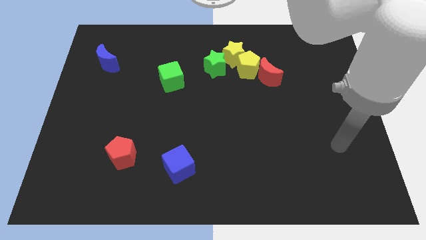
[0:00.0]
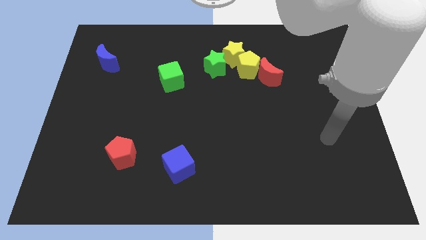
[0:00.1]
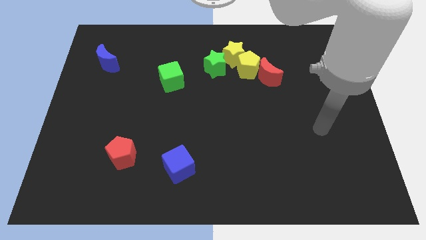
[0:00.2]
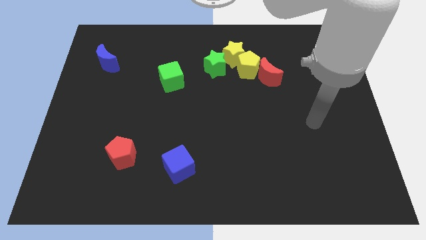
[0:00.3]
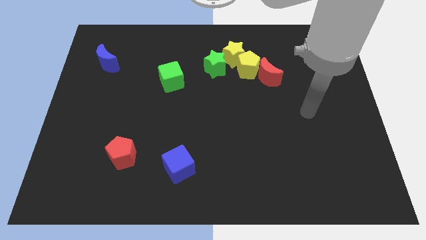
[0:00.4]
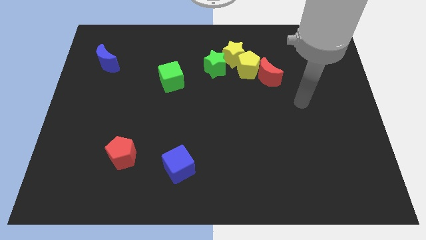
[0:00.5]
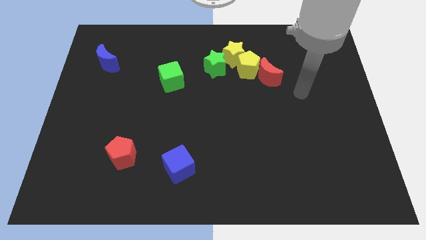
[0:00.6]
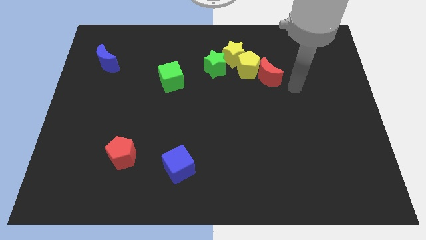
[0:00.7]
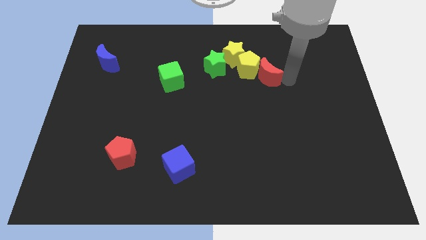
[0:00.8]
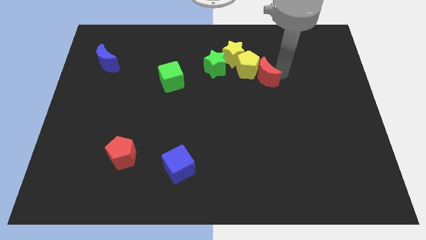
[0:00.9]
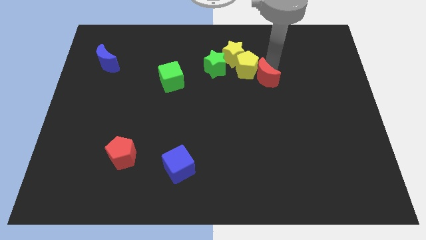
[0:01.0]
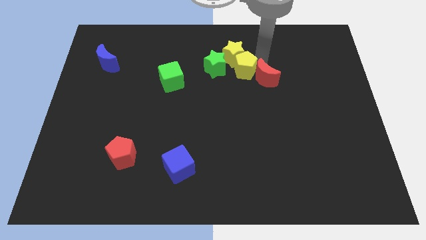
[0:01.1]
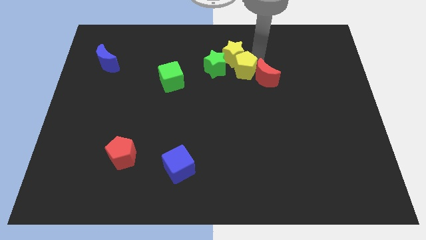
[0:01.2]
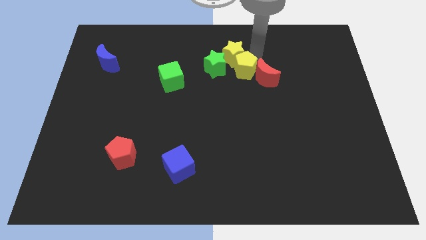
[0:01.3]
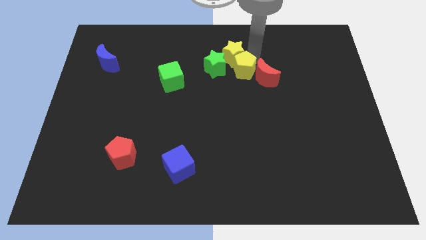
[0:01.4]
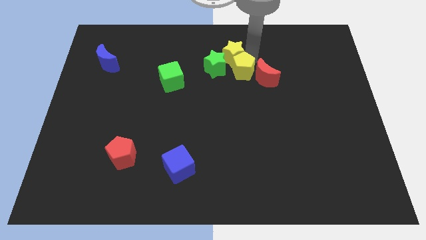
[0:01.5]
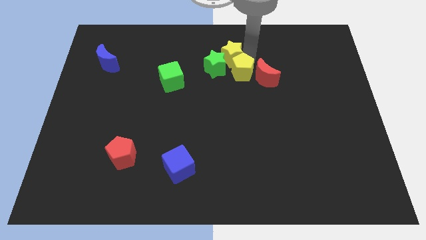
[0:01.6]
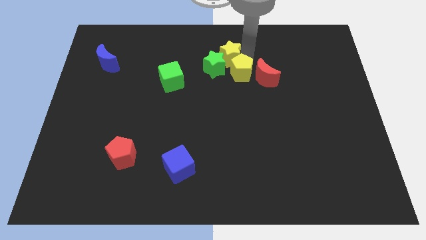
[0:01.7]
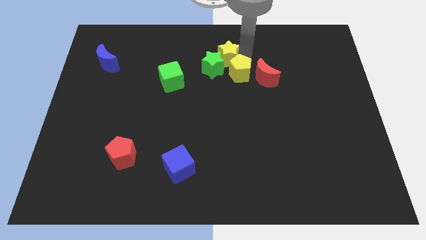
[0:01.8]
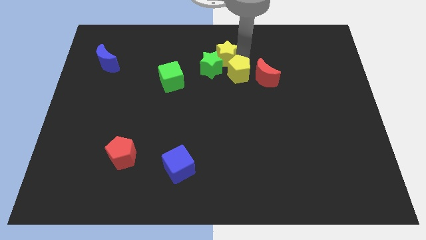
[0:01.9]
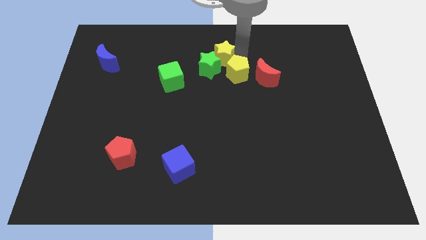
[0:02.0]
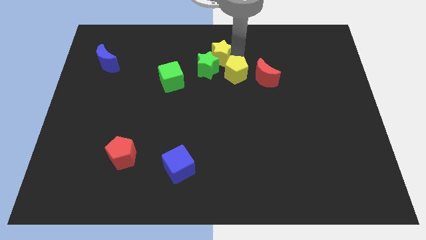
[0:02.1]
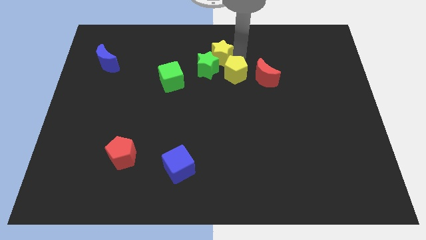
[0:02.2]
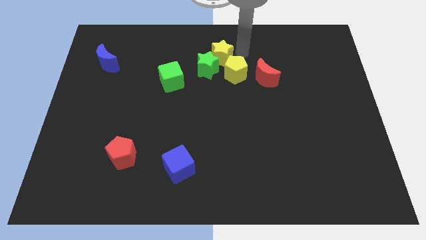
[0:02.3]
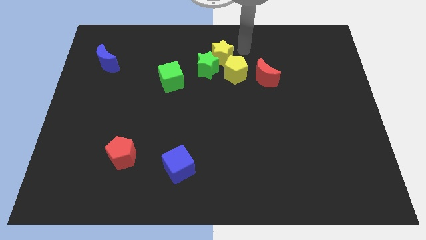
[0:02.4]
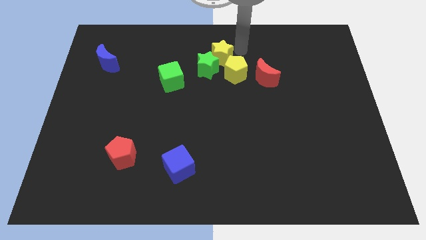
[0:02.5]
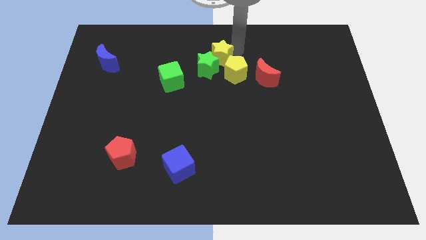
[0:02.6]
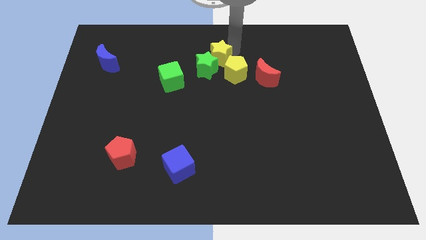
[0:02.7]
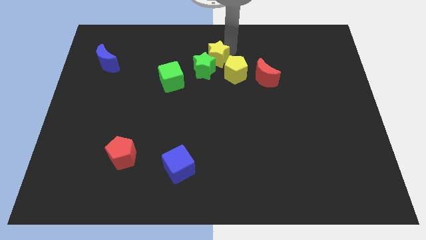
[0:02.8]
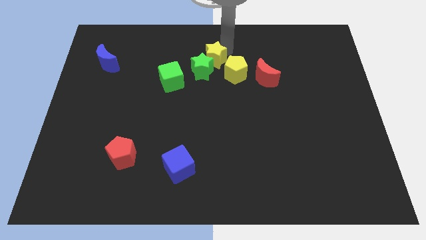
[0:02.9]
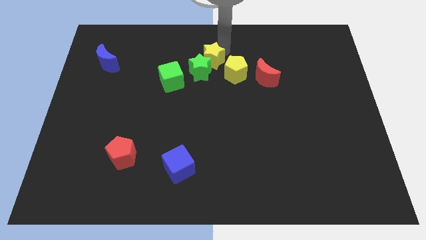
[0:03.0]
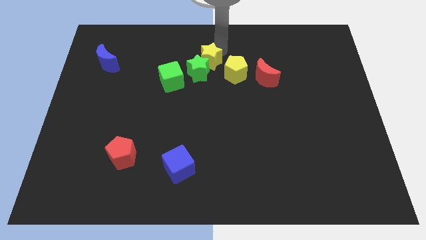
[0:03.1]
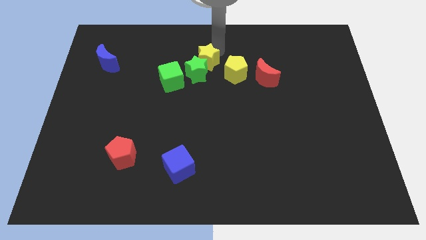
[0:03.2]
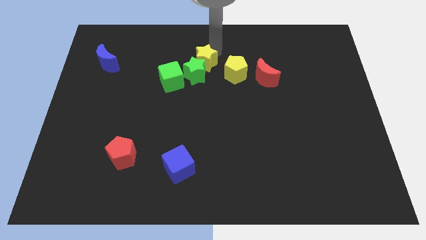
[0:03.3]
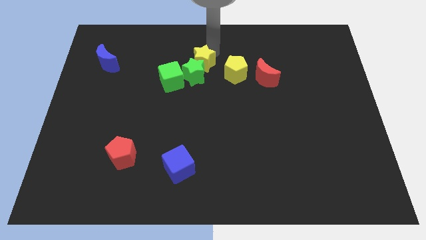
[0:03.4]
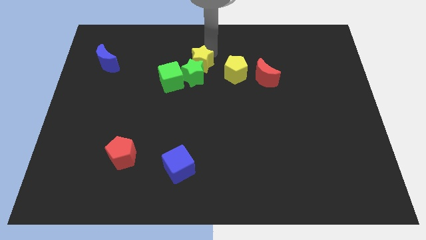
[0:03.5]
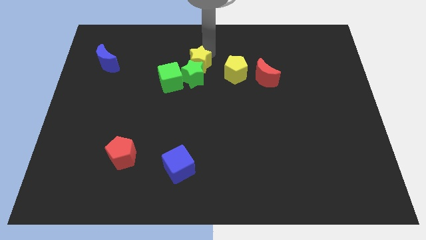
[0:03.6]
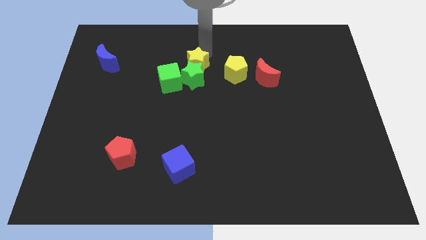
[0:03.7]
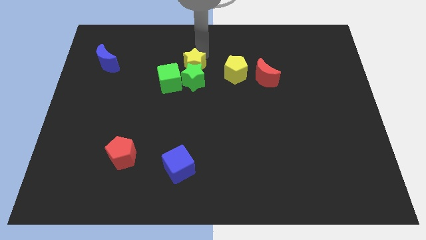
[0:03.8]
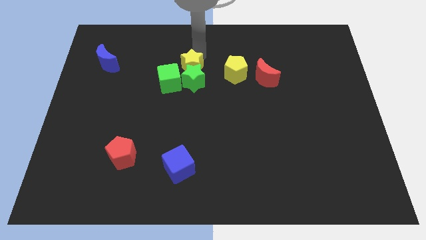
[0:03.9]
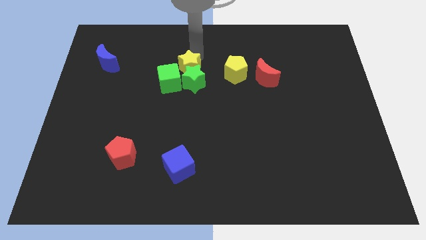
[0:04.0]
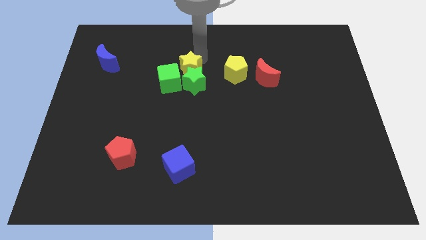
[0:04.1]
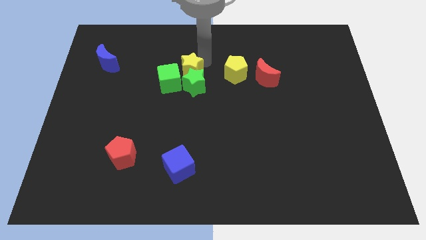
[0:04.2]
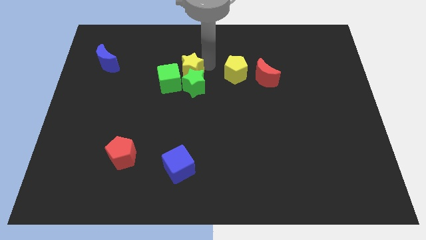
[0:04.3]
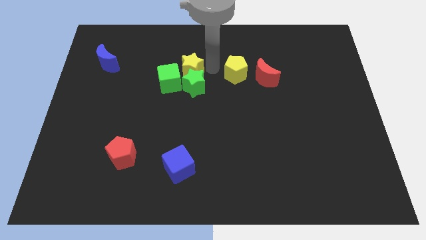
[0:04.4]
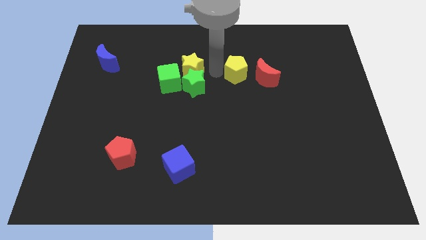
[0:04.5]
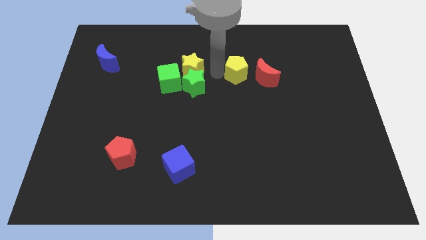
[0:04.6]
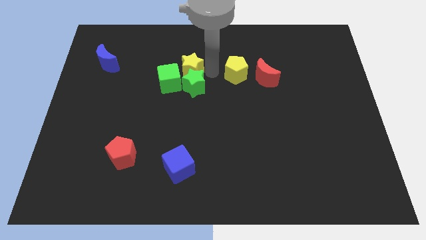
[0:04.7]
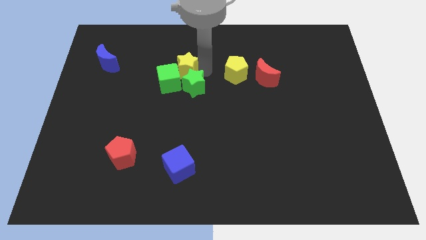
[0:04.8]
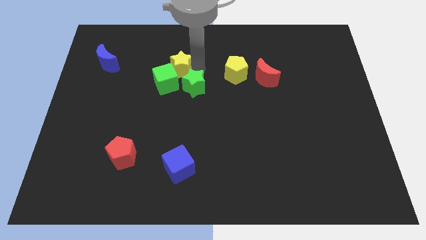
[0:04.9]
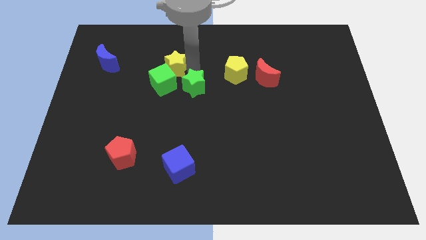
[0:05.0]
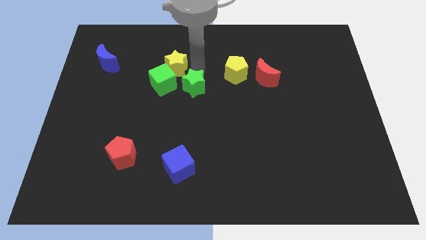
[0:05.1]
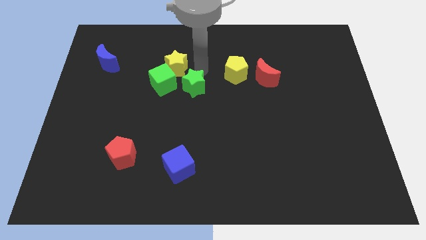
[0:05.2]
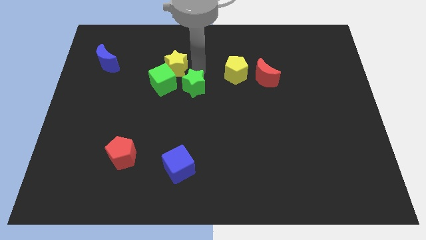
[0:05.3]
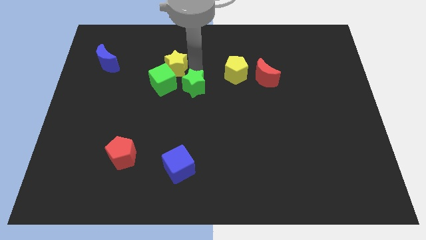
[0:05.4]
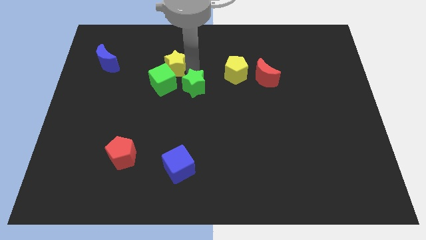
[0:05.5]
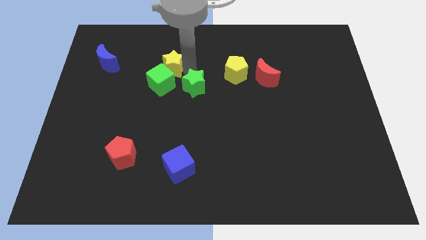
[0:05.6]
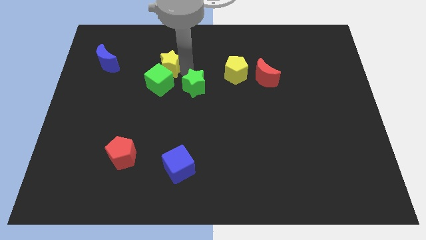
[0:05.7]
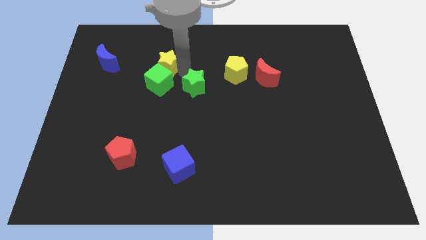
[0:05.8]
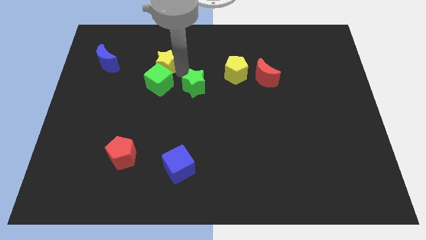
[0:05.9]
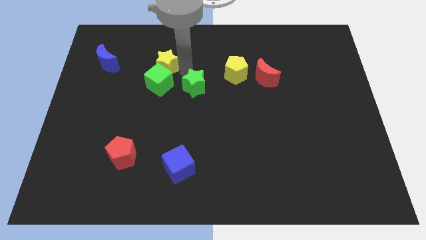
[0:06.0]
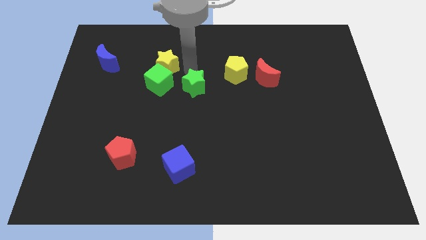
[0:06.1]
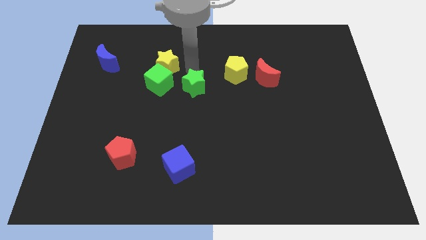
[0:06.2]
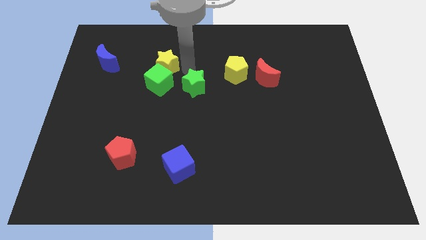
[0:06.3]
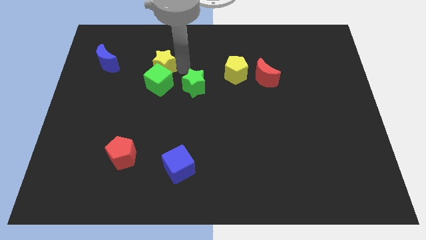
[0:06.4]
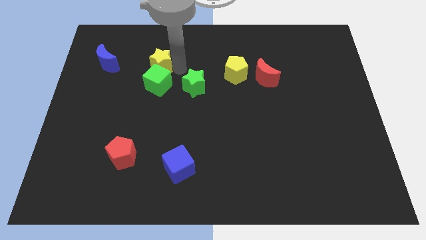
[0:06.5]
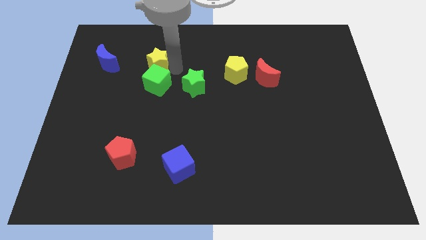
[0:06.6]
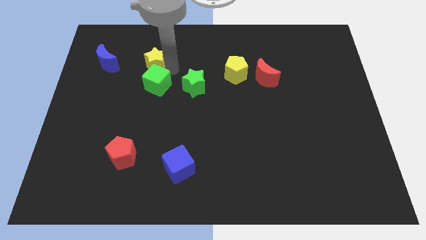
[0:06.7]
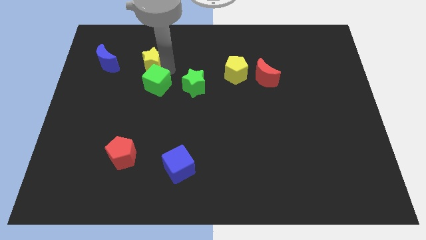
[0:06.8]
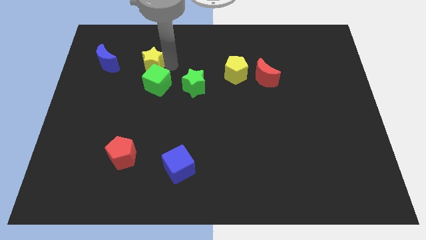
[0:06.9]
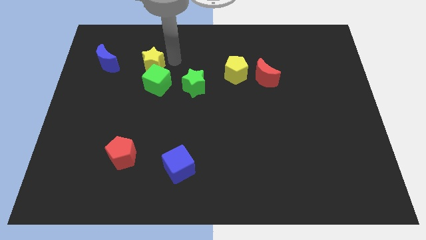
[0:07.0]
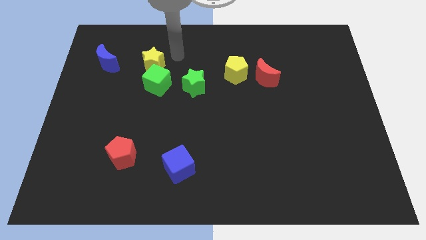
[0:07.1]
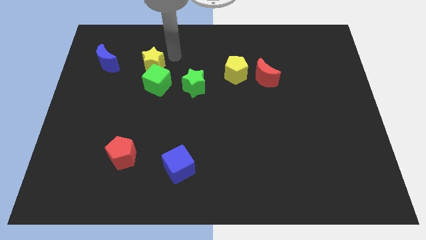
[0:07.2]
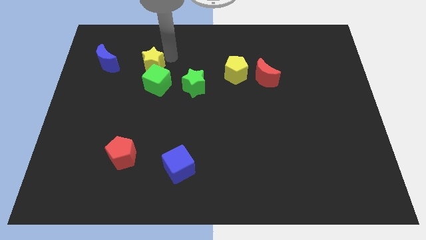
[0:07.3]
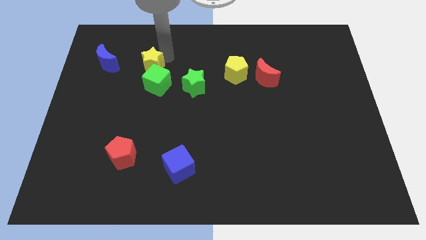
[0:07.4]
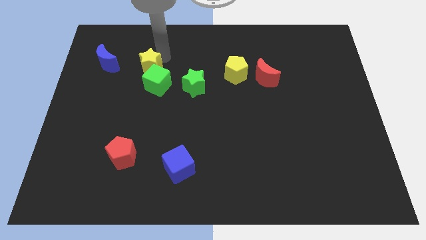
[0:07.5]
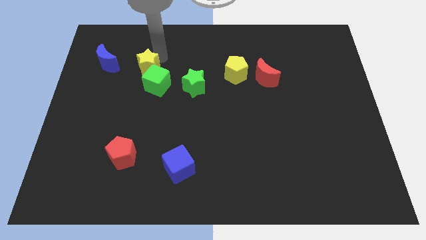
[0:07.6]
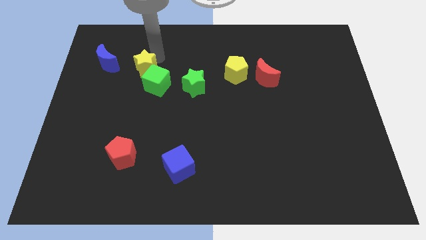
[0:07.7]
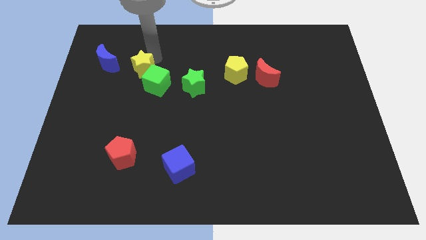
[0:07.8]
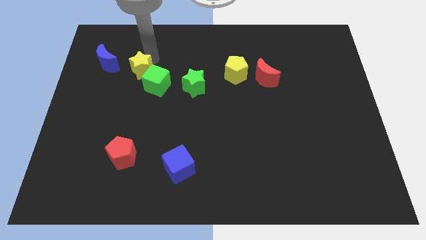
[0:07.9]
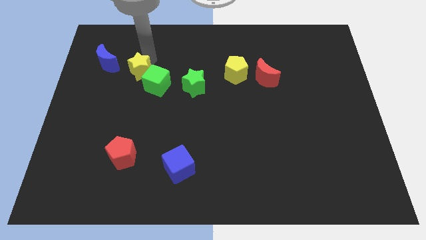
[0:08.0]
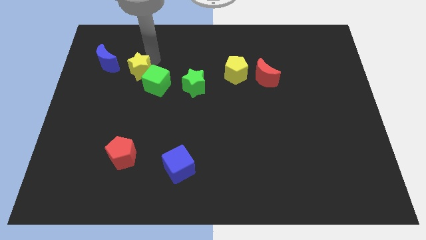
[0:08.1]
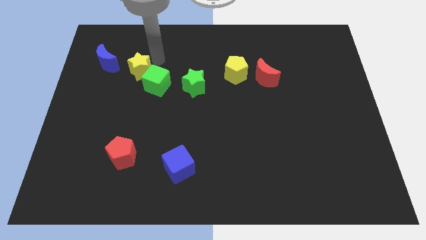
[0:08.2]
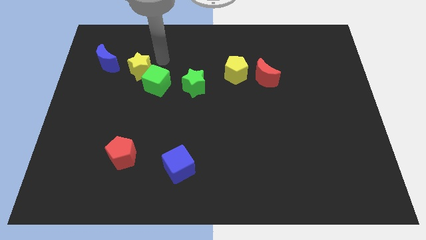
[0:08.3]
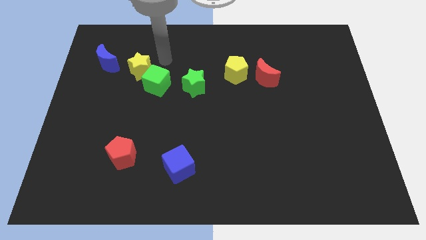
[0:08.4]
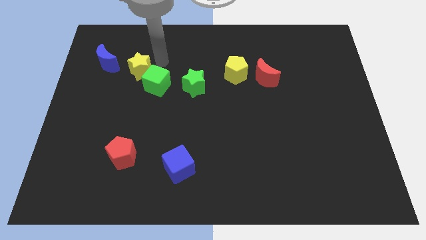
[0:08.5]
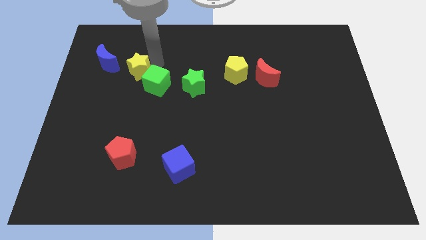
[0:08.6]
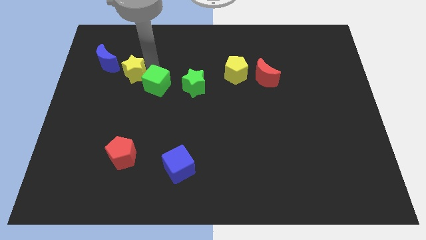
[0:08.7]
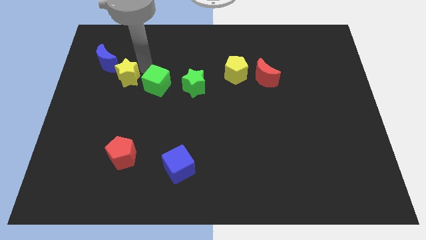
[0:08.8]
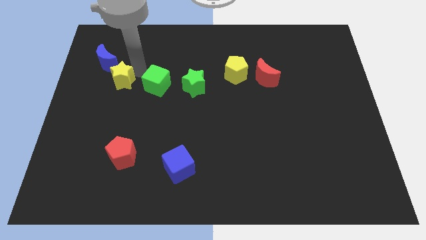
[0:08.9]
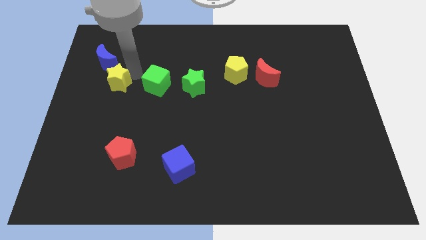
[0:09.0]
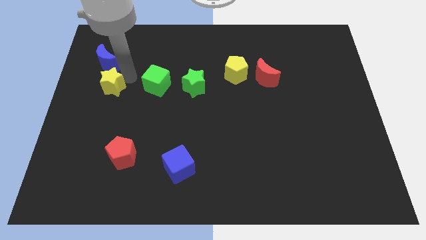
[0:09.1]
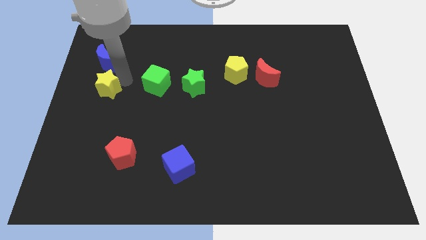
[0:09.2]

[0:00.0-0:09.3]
push the yellow star to the left side of the board
